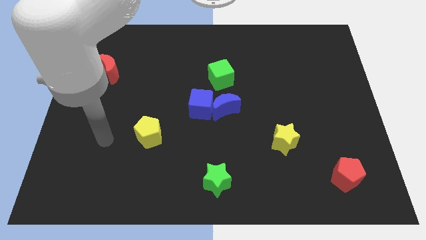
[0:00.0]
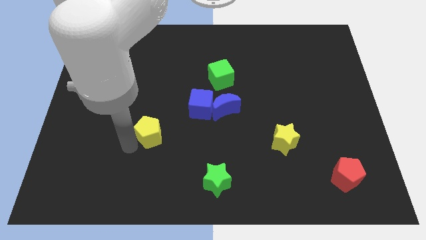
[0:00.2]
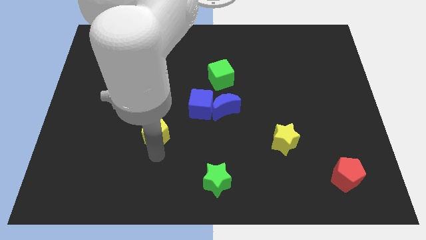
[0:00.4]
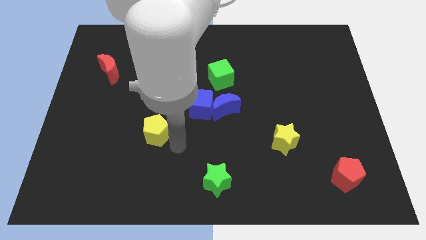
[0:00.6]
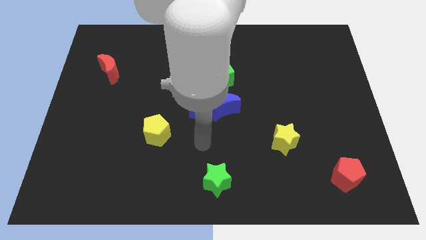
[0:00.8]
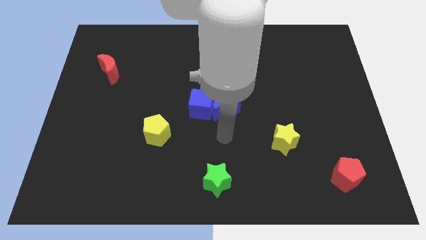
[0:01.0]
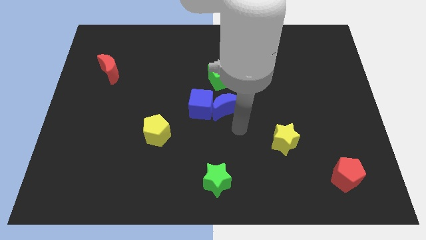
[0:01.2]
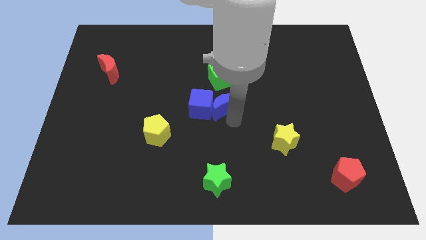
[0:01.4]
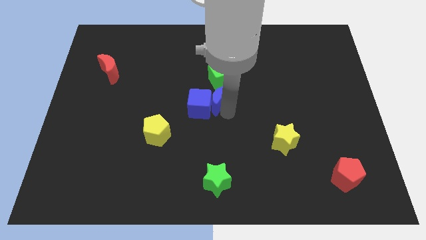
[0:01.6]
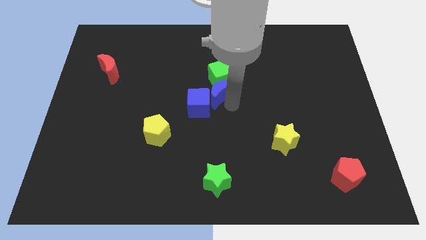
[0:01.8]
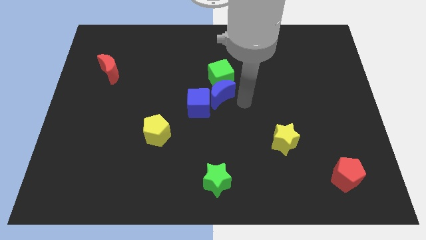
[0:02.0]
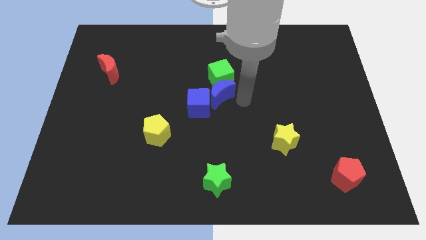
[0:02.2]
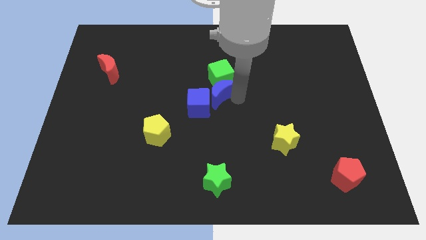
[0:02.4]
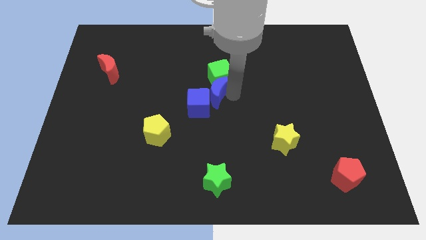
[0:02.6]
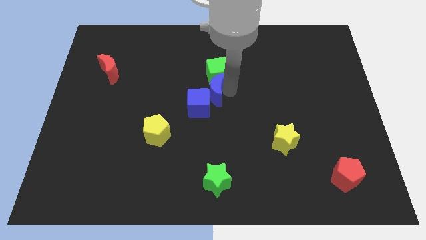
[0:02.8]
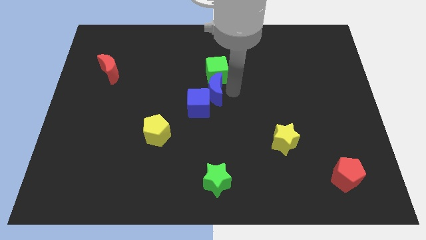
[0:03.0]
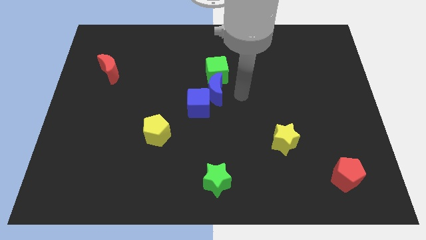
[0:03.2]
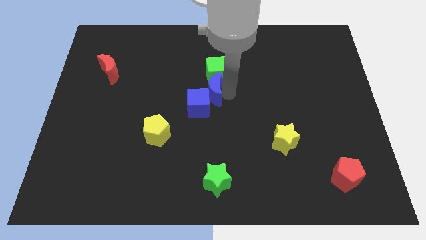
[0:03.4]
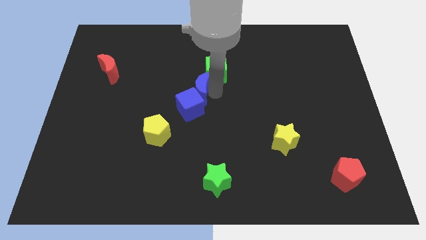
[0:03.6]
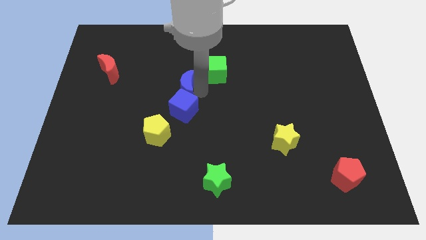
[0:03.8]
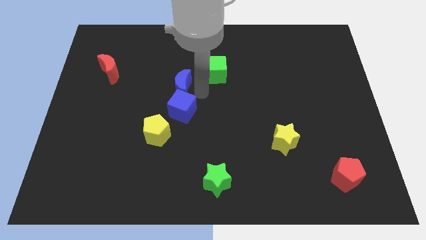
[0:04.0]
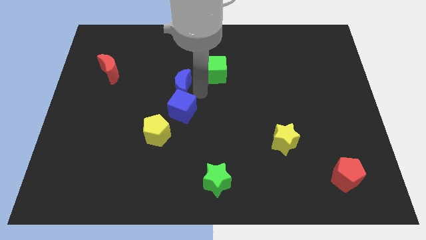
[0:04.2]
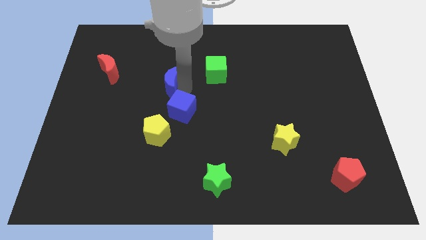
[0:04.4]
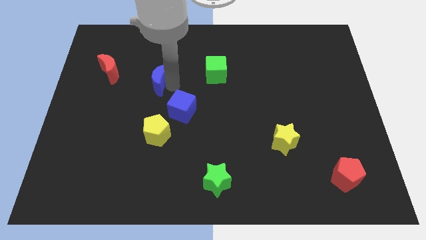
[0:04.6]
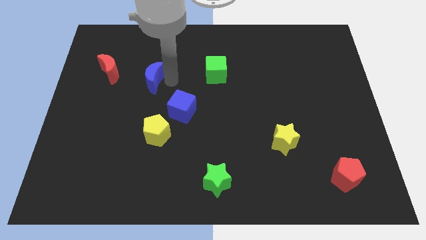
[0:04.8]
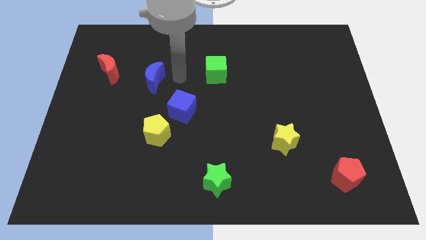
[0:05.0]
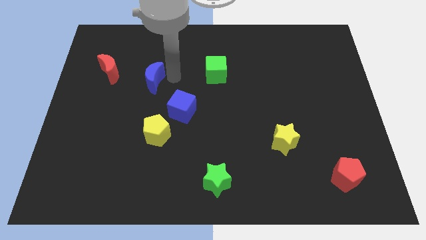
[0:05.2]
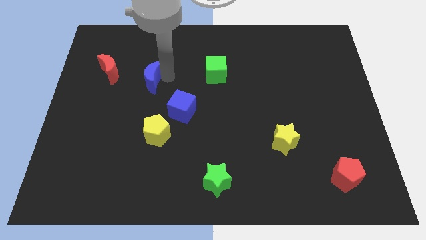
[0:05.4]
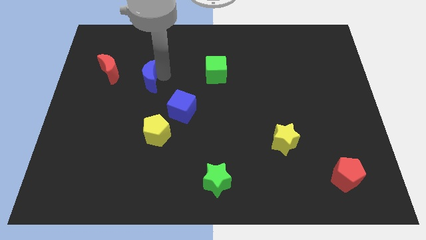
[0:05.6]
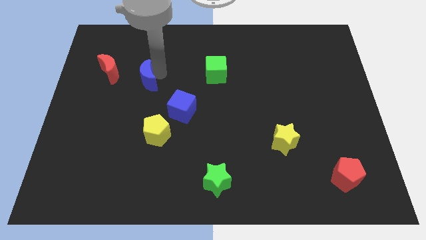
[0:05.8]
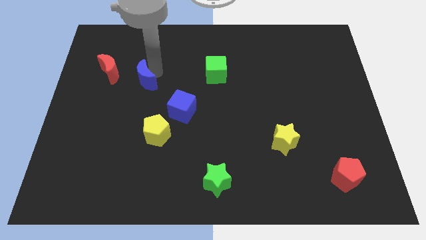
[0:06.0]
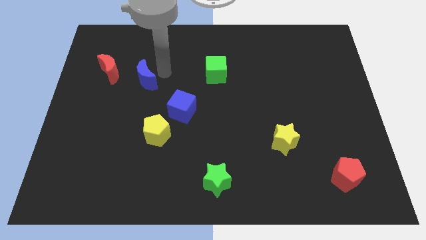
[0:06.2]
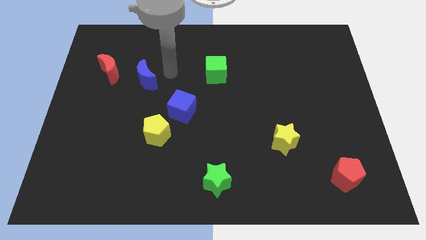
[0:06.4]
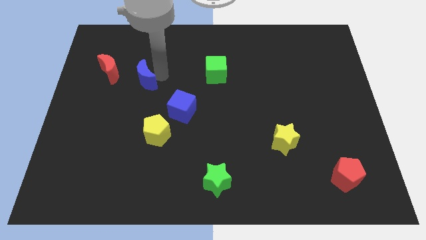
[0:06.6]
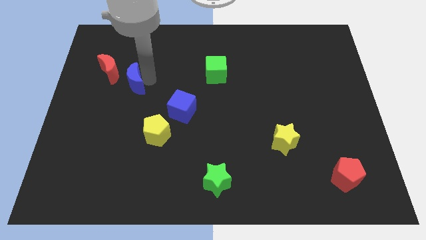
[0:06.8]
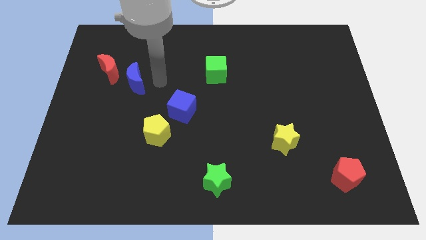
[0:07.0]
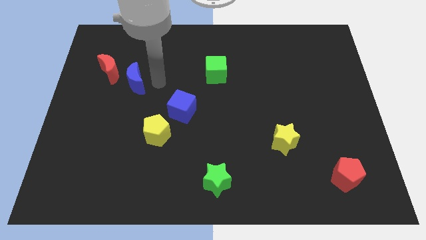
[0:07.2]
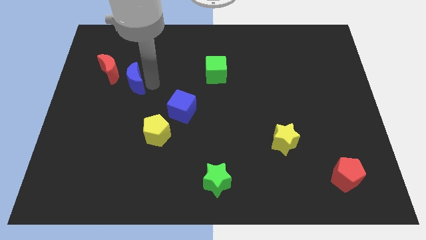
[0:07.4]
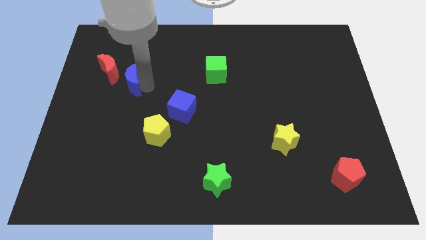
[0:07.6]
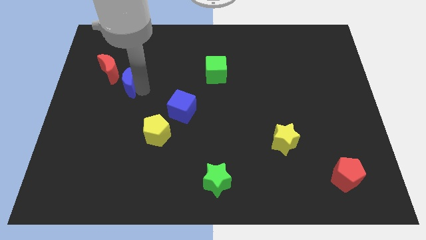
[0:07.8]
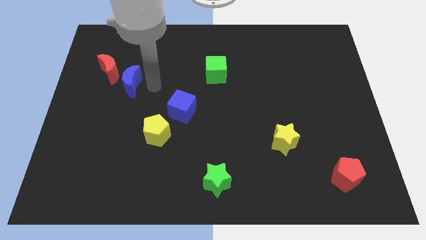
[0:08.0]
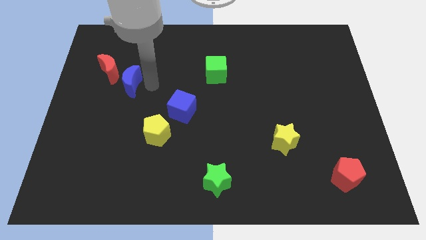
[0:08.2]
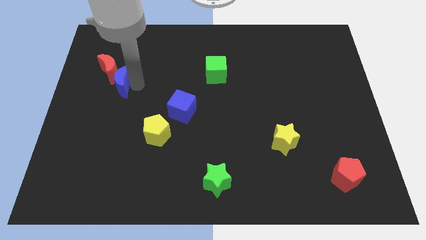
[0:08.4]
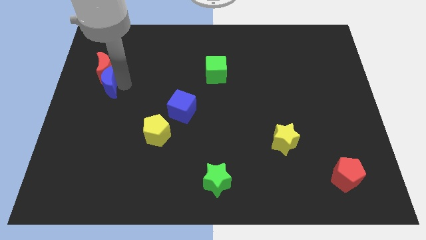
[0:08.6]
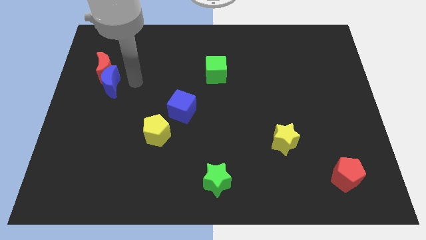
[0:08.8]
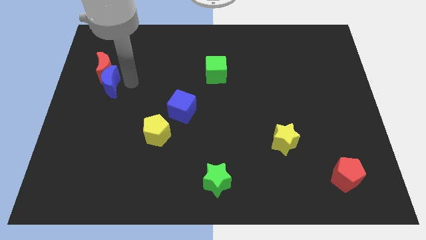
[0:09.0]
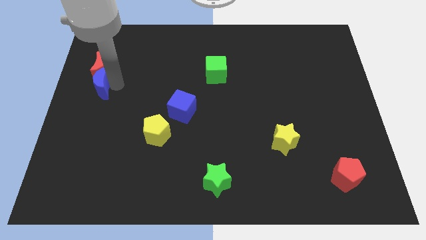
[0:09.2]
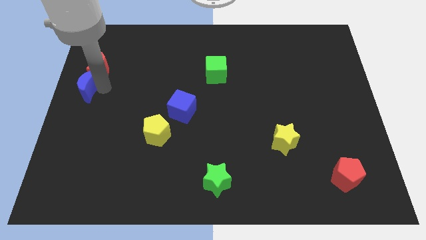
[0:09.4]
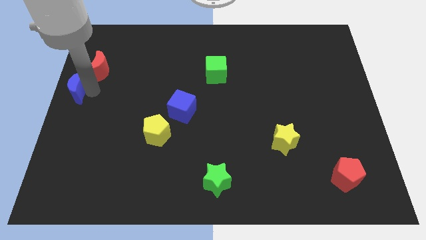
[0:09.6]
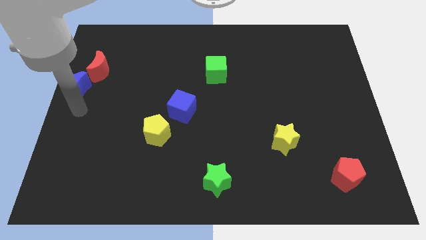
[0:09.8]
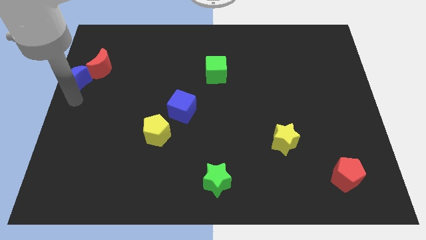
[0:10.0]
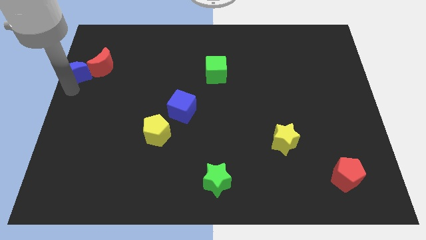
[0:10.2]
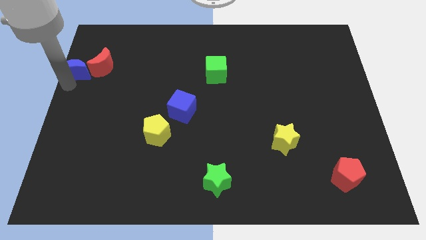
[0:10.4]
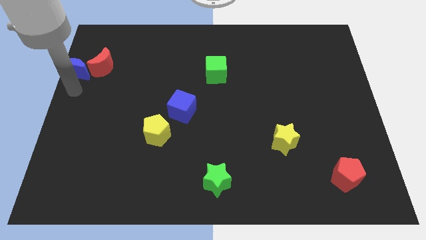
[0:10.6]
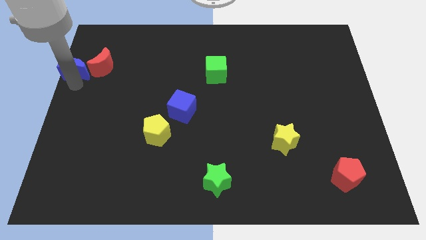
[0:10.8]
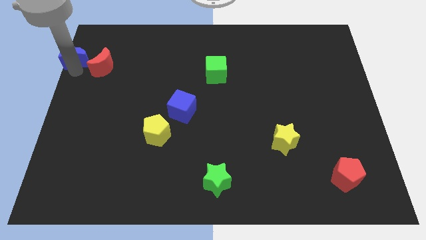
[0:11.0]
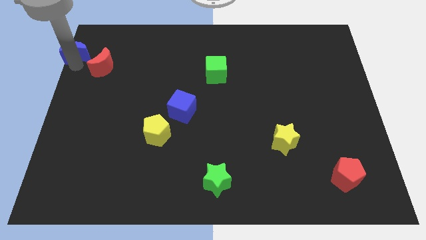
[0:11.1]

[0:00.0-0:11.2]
slide the blue moon to the top left of the board

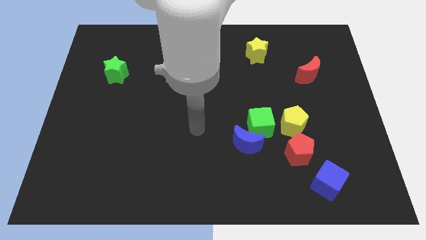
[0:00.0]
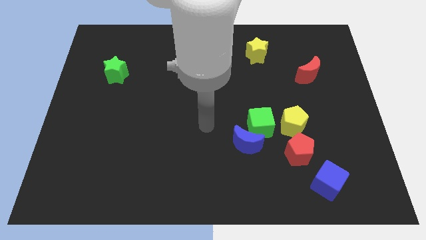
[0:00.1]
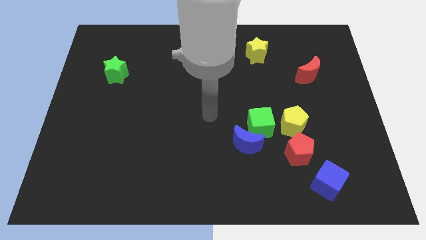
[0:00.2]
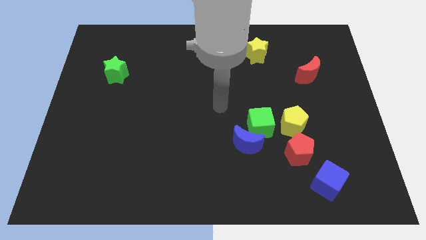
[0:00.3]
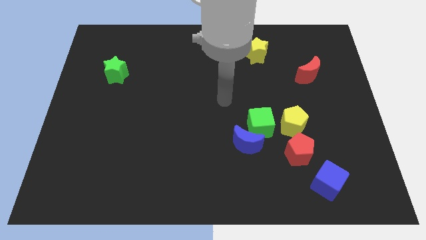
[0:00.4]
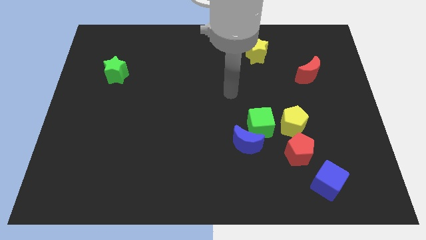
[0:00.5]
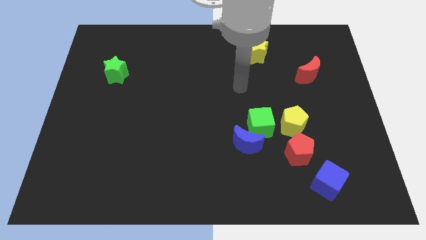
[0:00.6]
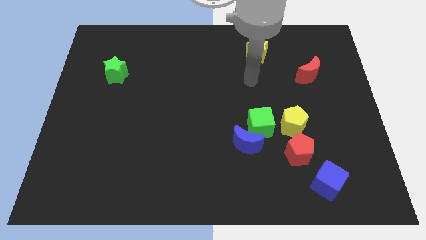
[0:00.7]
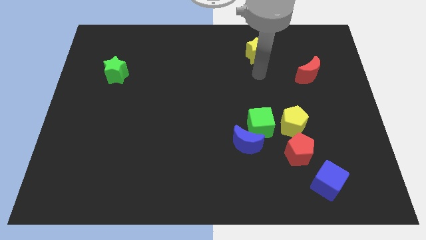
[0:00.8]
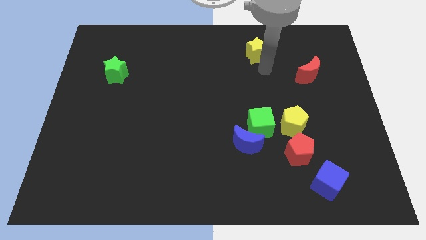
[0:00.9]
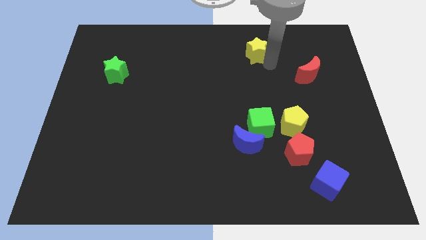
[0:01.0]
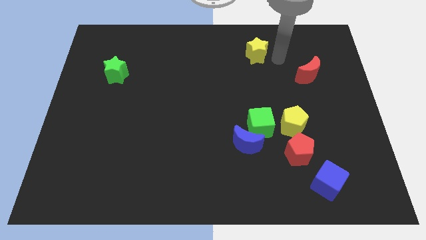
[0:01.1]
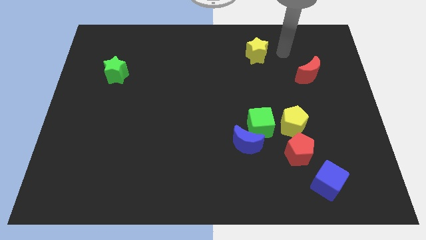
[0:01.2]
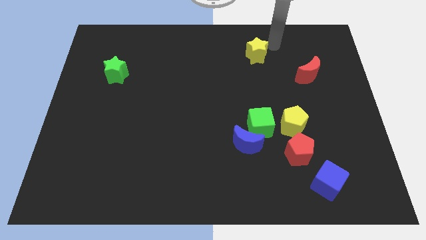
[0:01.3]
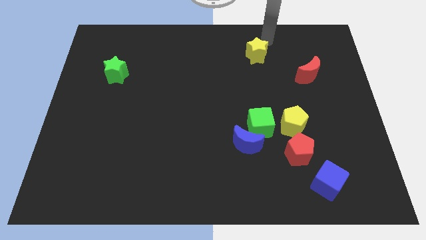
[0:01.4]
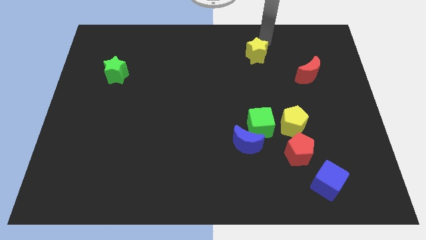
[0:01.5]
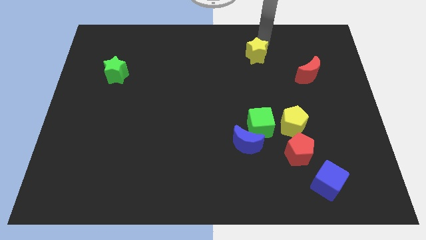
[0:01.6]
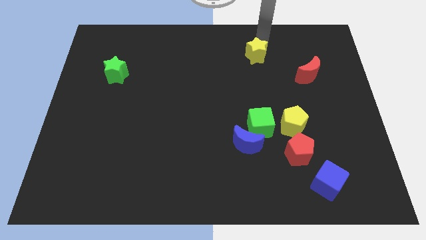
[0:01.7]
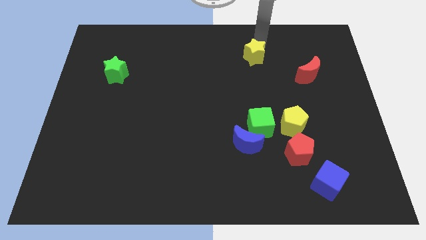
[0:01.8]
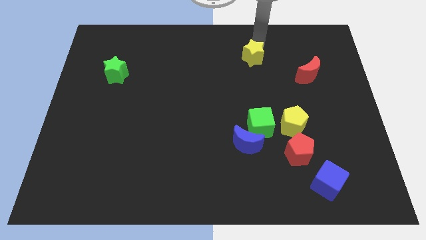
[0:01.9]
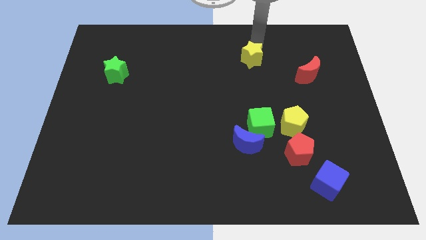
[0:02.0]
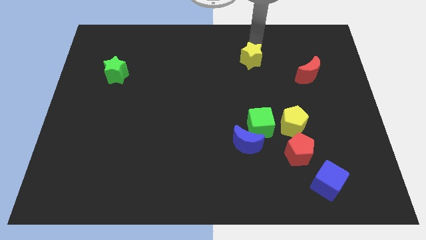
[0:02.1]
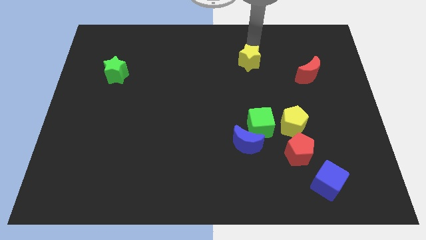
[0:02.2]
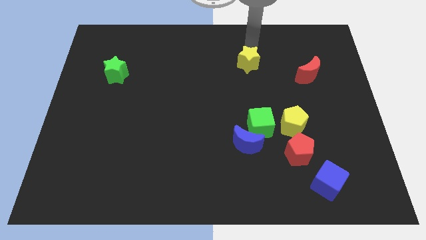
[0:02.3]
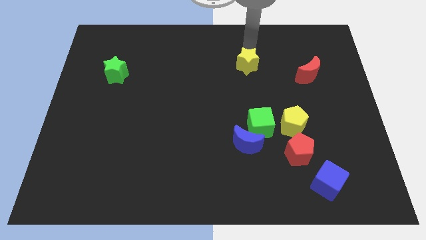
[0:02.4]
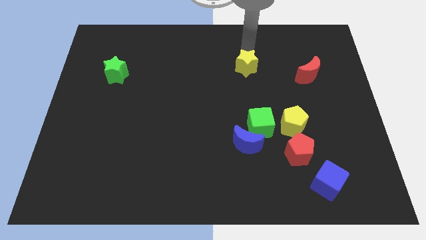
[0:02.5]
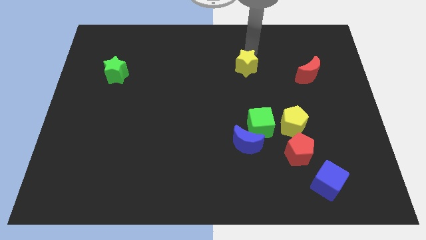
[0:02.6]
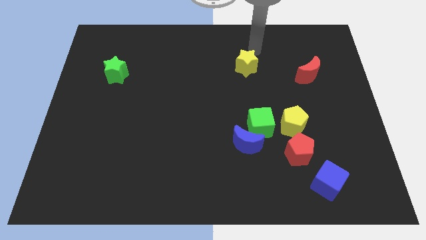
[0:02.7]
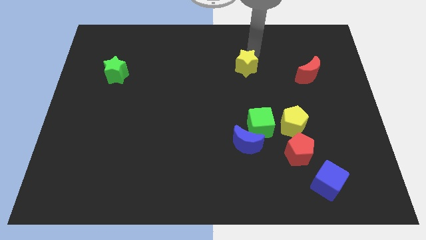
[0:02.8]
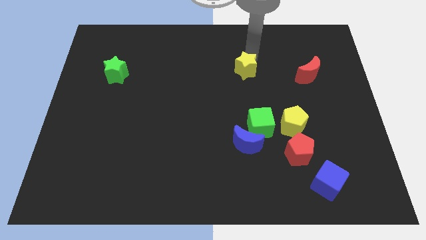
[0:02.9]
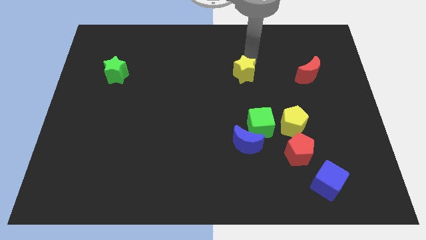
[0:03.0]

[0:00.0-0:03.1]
put the yellow star to the center
